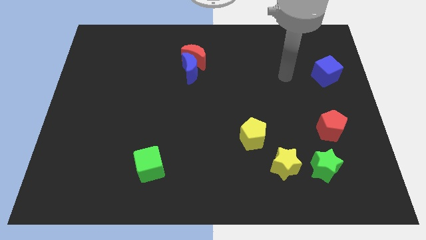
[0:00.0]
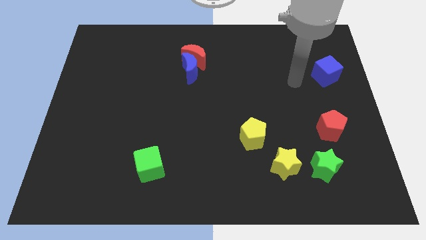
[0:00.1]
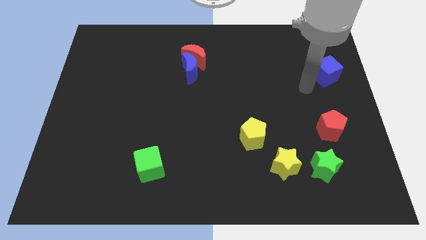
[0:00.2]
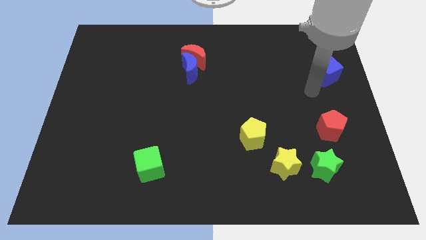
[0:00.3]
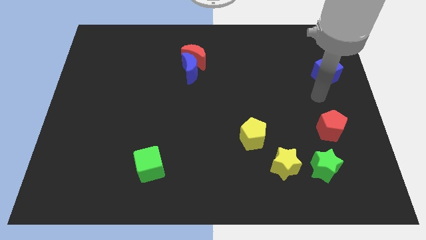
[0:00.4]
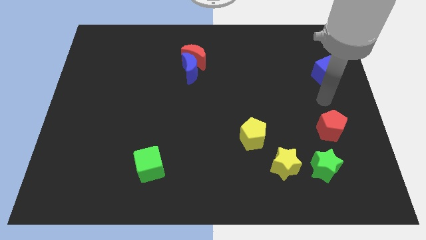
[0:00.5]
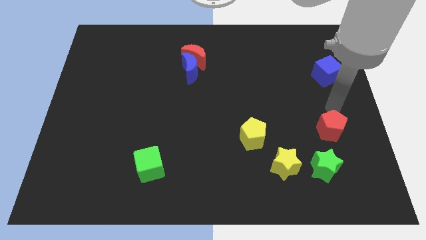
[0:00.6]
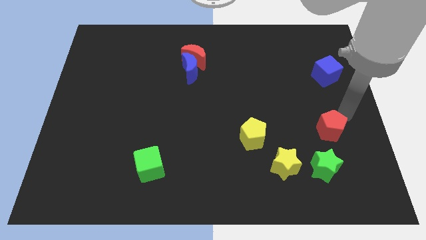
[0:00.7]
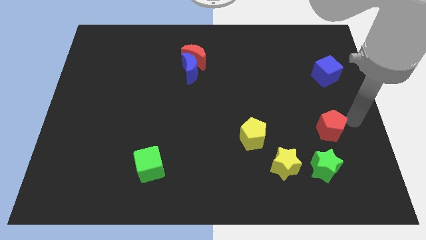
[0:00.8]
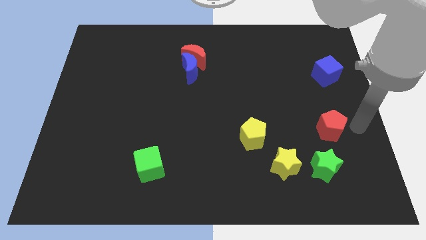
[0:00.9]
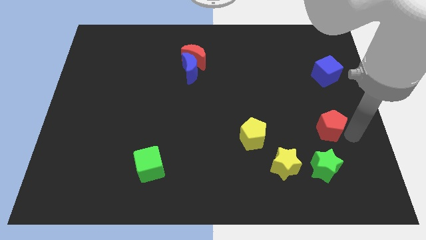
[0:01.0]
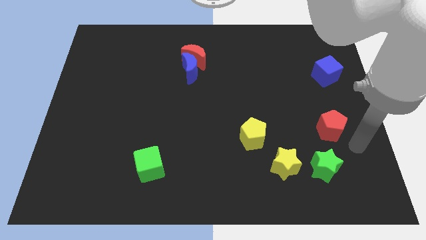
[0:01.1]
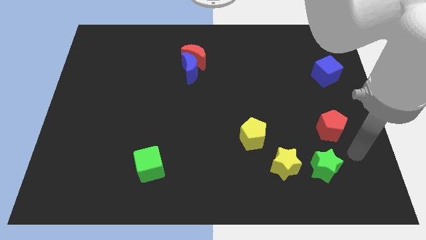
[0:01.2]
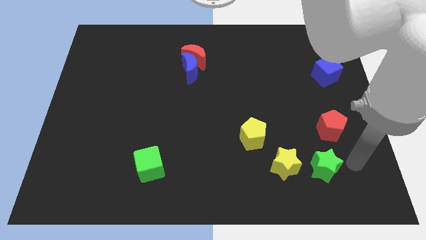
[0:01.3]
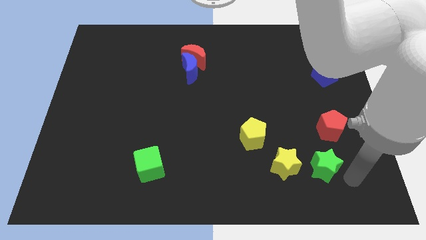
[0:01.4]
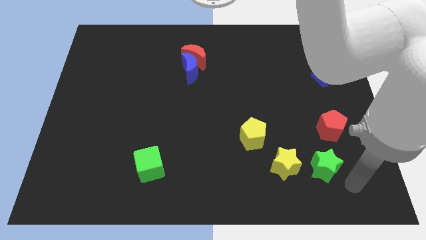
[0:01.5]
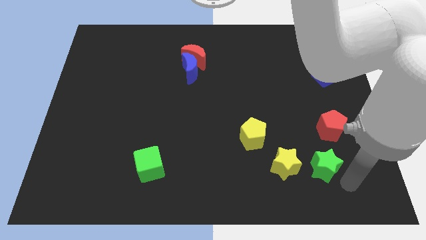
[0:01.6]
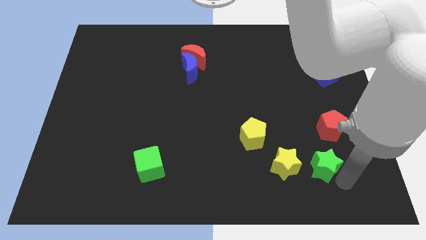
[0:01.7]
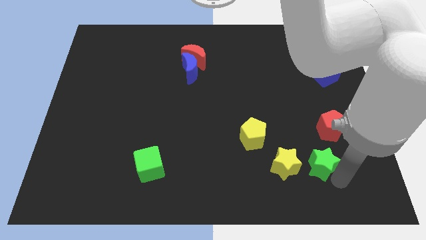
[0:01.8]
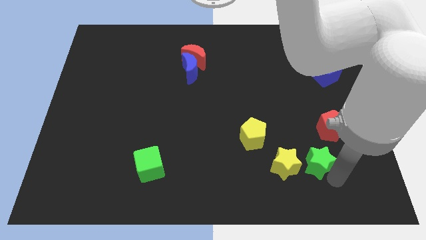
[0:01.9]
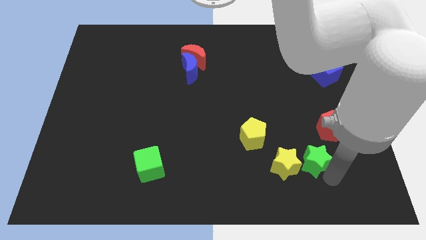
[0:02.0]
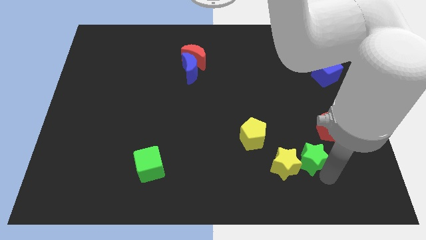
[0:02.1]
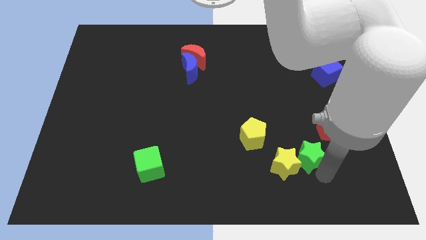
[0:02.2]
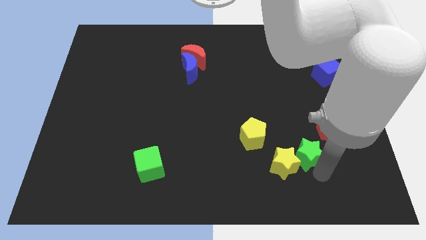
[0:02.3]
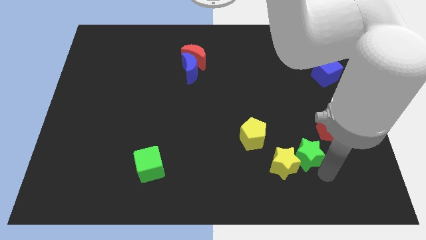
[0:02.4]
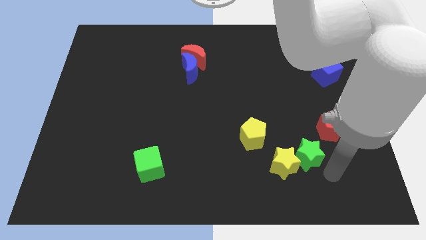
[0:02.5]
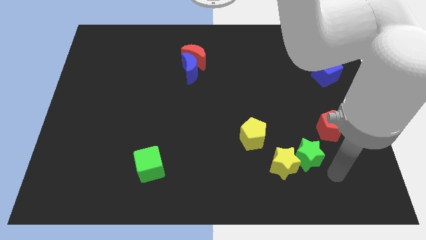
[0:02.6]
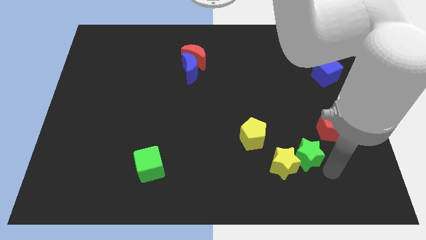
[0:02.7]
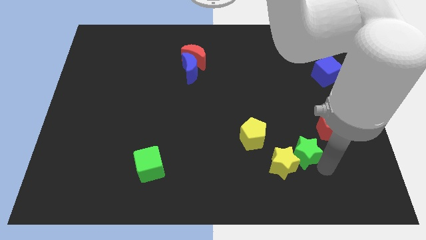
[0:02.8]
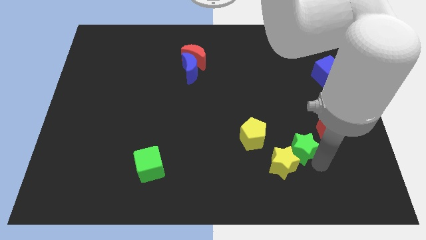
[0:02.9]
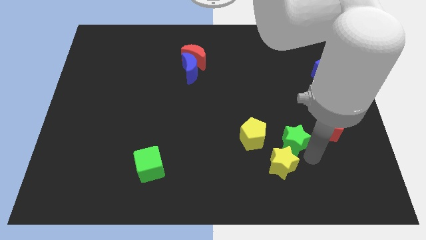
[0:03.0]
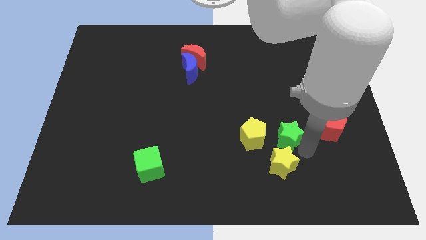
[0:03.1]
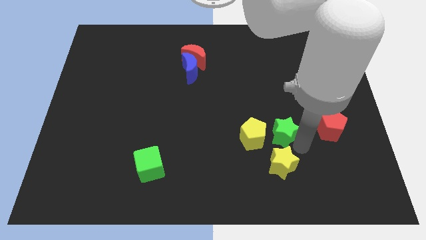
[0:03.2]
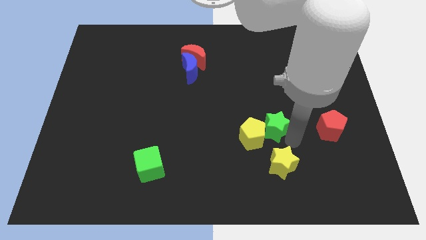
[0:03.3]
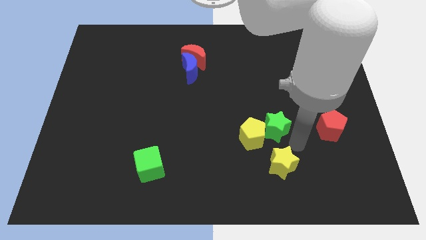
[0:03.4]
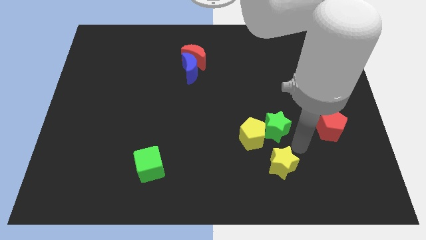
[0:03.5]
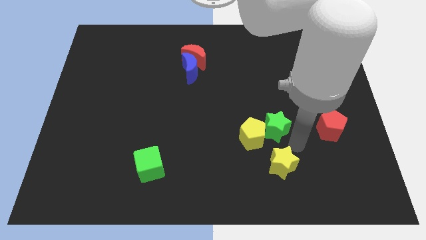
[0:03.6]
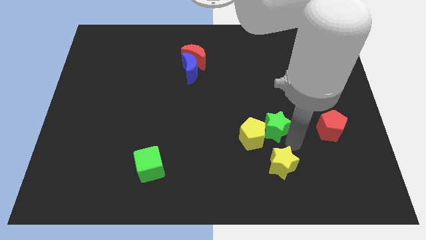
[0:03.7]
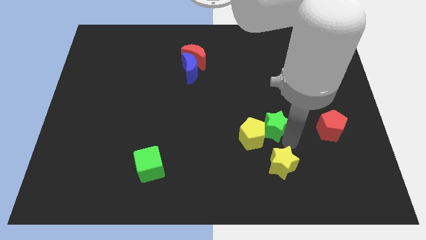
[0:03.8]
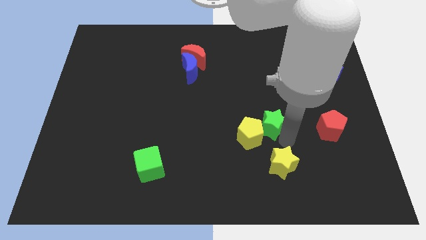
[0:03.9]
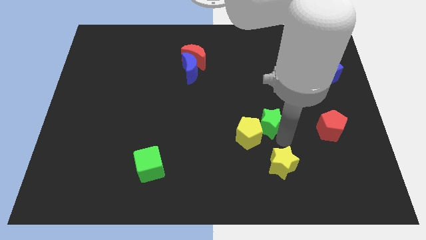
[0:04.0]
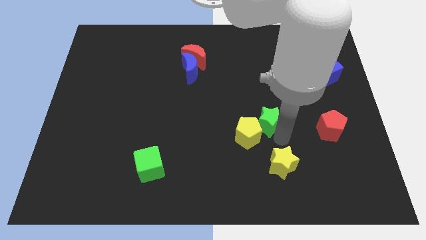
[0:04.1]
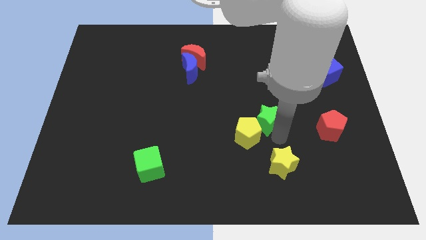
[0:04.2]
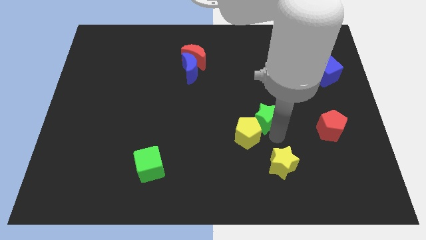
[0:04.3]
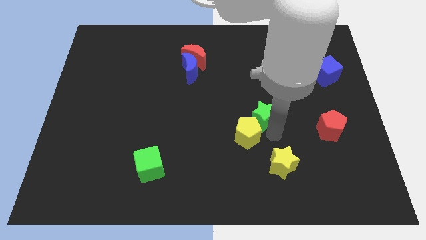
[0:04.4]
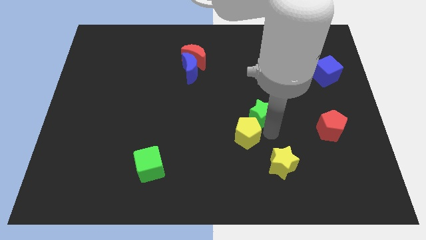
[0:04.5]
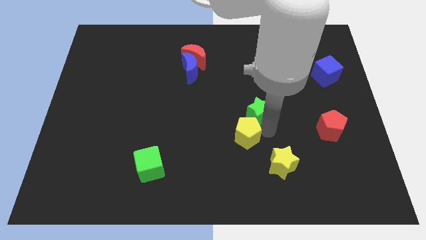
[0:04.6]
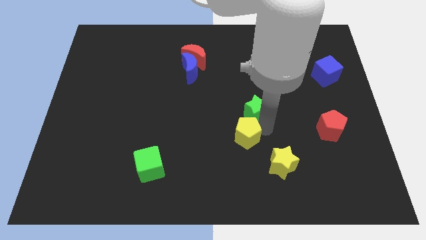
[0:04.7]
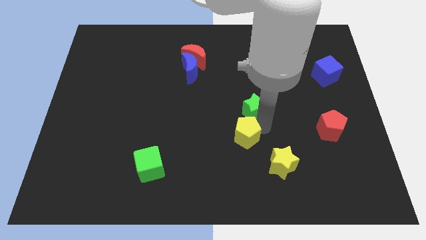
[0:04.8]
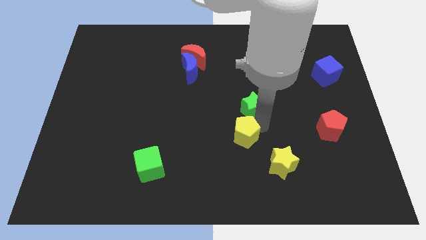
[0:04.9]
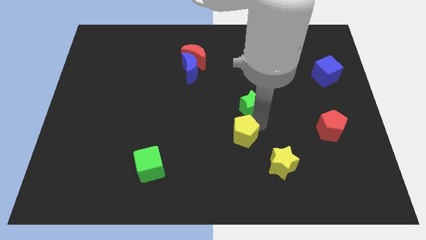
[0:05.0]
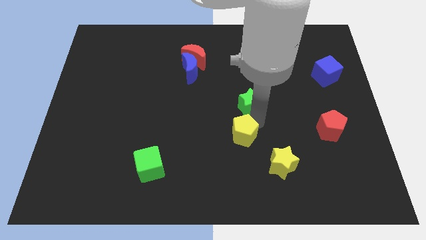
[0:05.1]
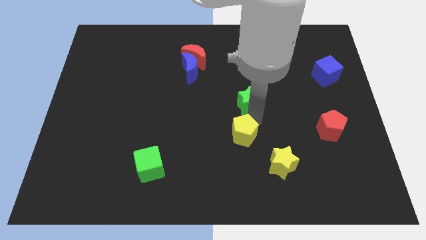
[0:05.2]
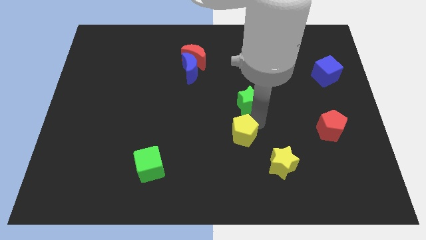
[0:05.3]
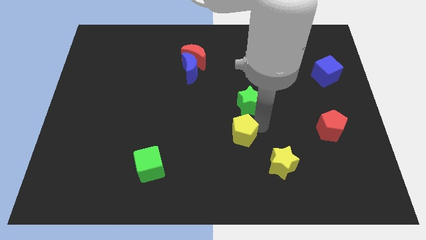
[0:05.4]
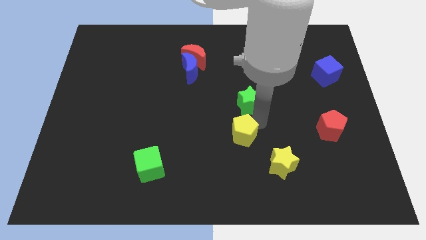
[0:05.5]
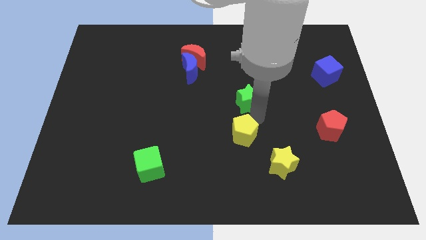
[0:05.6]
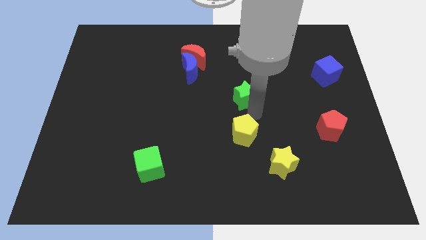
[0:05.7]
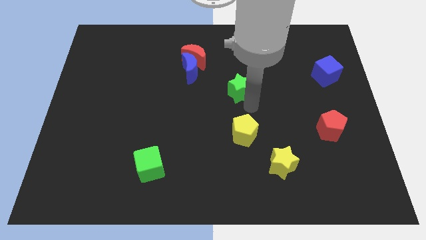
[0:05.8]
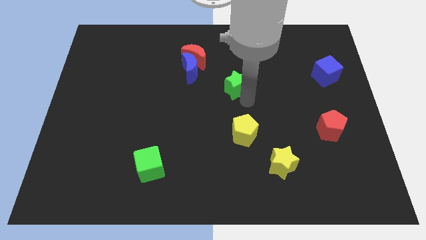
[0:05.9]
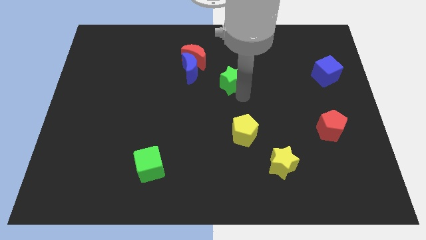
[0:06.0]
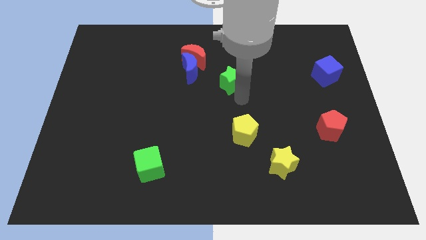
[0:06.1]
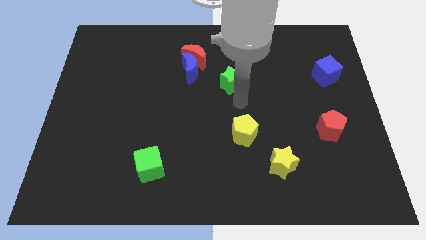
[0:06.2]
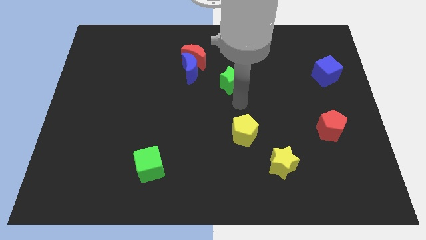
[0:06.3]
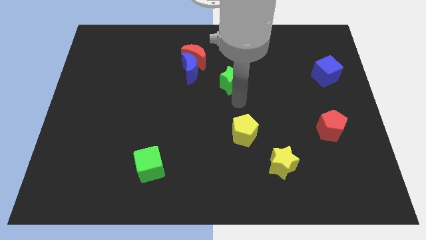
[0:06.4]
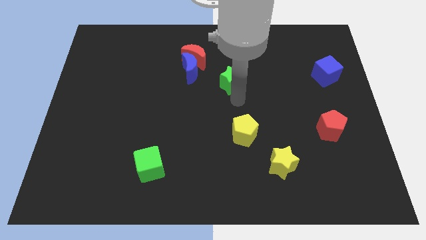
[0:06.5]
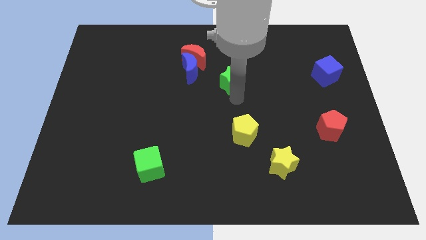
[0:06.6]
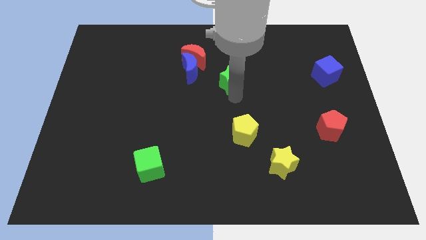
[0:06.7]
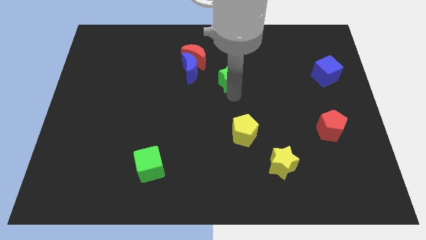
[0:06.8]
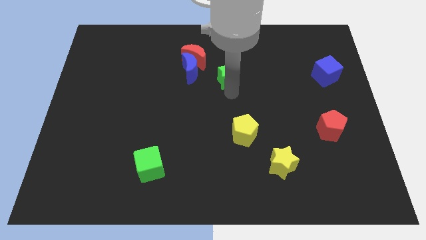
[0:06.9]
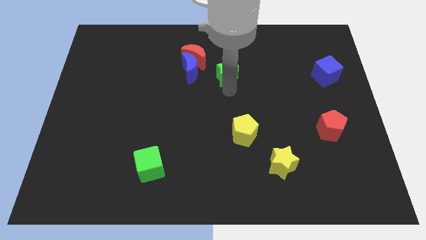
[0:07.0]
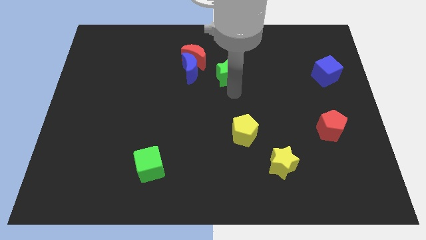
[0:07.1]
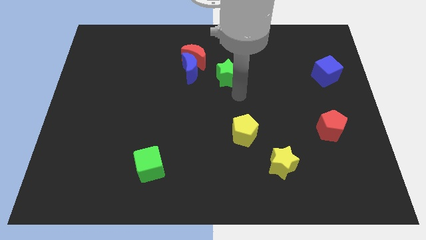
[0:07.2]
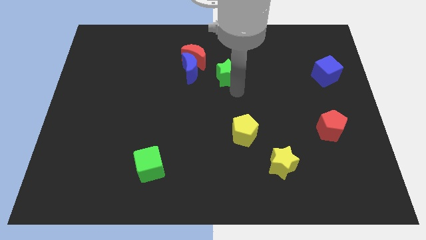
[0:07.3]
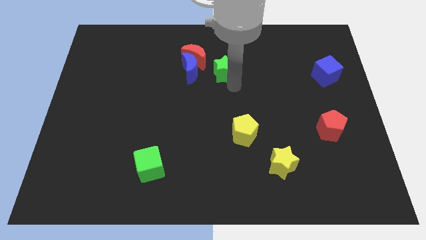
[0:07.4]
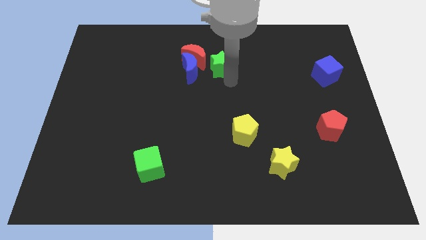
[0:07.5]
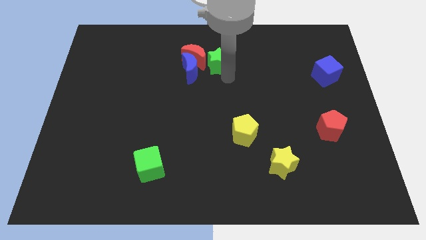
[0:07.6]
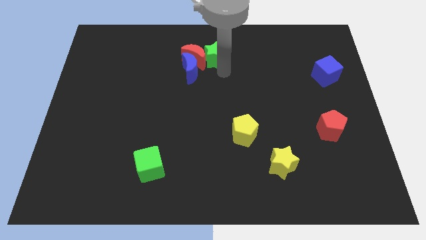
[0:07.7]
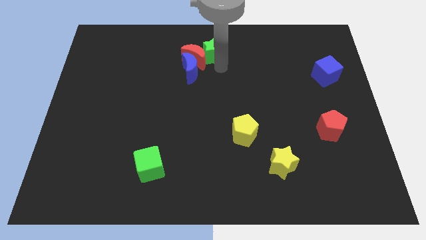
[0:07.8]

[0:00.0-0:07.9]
slide the green star to the towards your base
